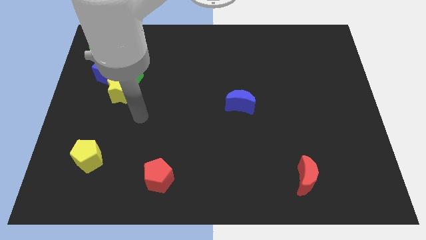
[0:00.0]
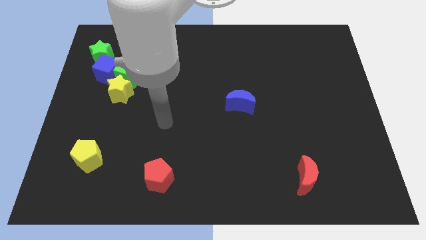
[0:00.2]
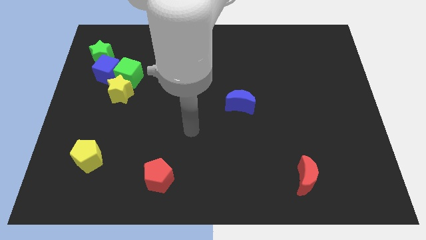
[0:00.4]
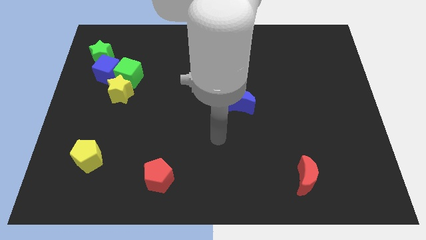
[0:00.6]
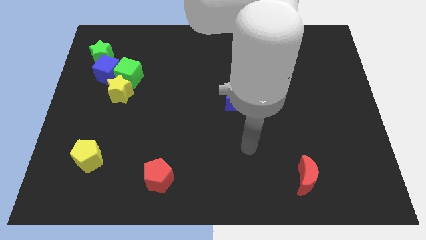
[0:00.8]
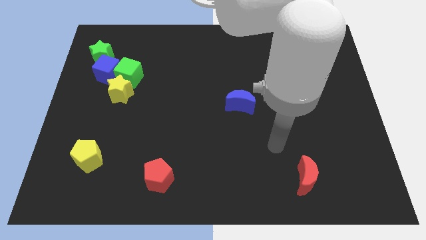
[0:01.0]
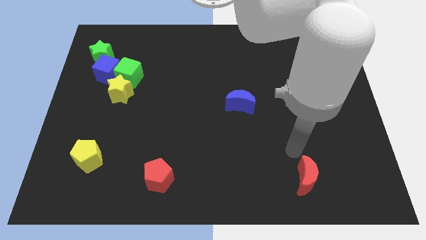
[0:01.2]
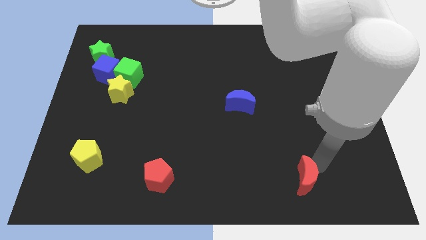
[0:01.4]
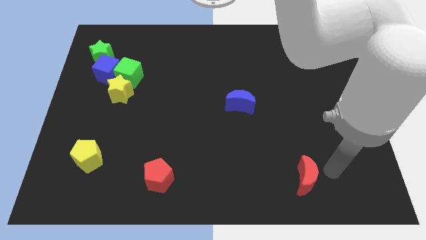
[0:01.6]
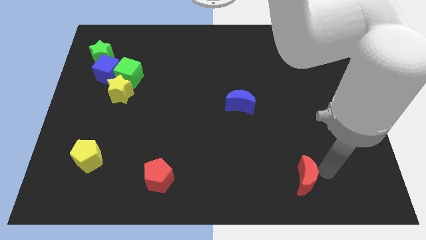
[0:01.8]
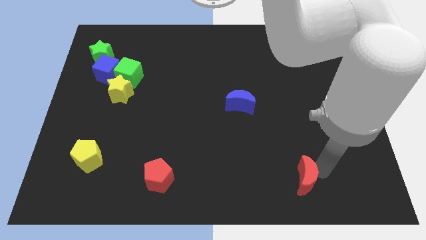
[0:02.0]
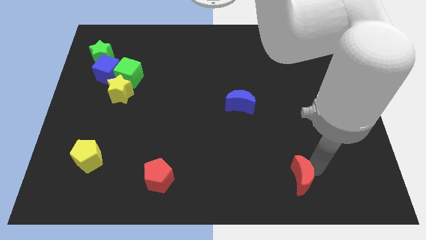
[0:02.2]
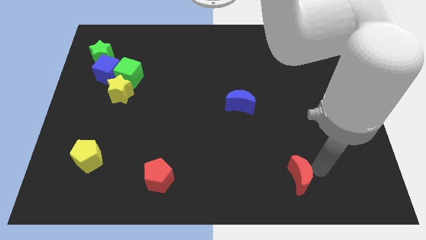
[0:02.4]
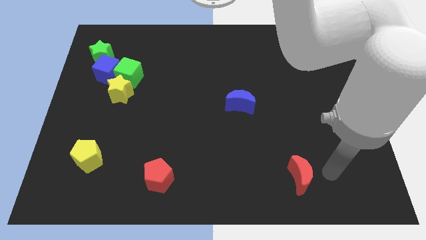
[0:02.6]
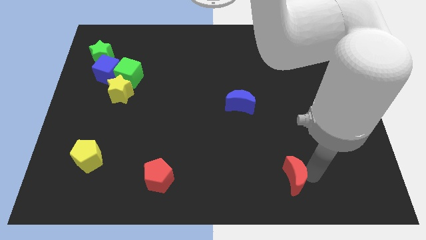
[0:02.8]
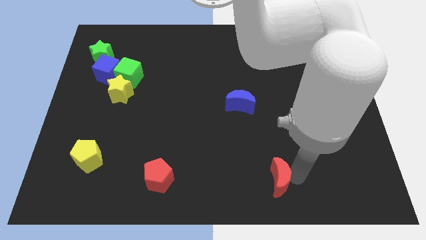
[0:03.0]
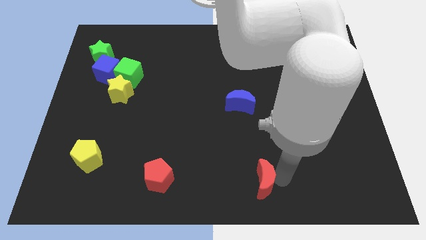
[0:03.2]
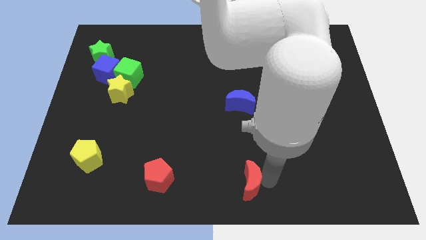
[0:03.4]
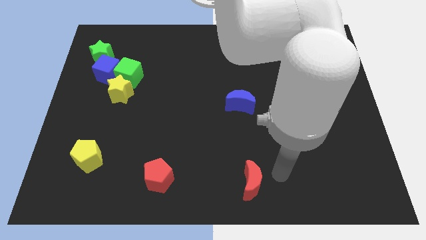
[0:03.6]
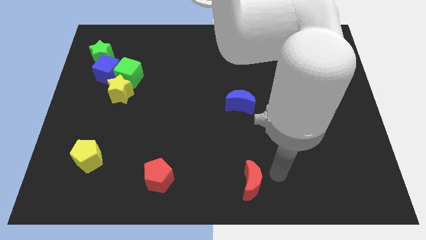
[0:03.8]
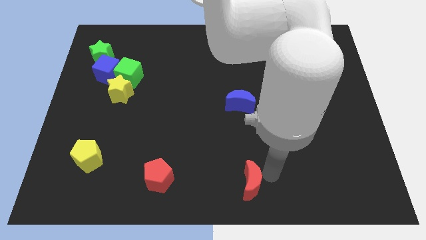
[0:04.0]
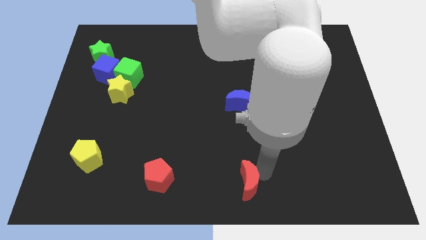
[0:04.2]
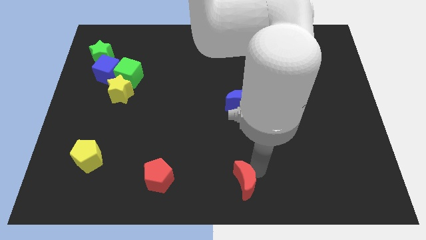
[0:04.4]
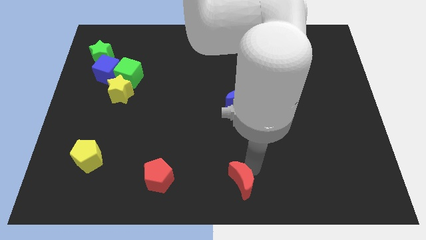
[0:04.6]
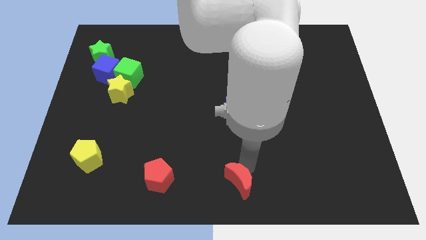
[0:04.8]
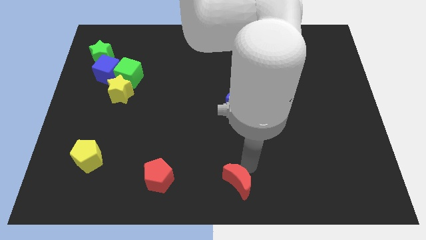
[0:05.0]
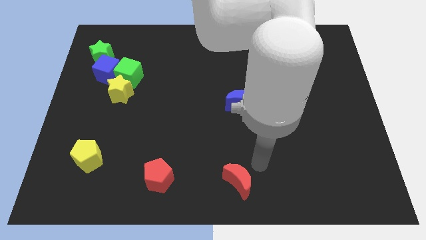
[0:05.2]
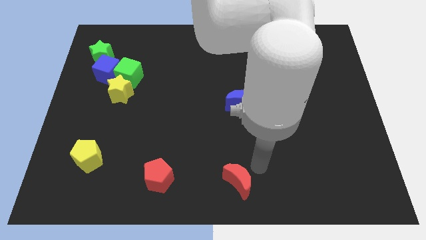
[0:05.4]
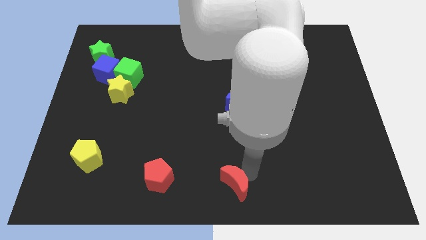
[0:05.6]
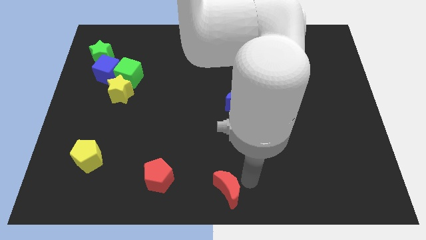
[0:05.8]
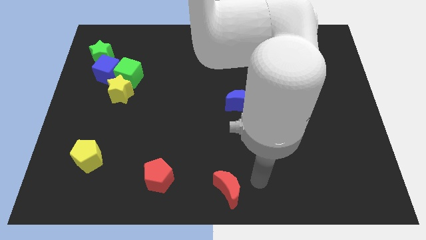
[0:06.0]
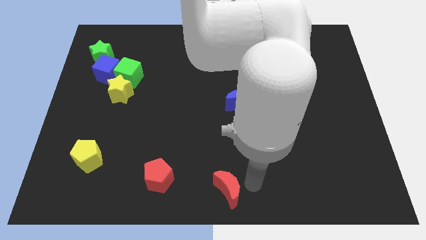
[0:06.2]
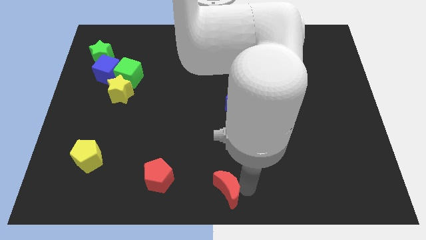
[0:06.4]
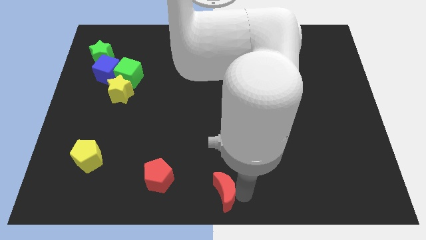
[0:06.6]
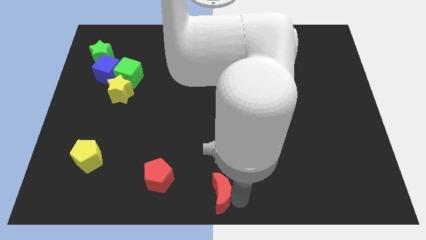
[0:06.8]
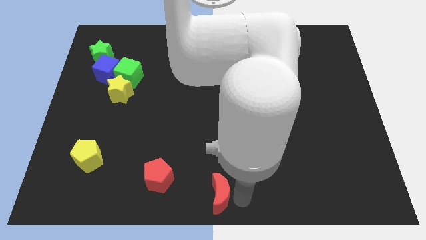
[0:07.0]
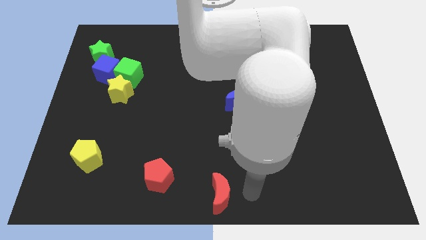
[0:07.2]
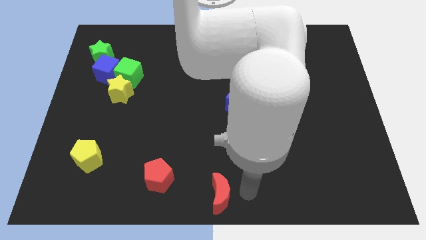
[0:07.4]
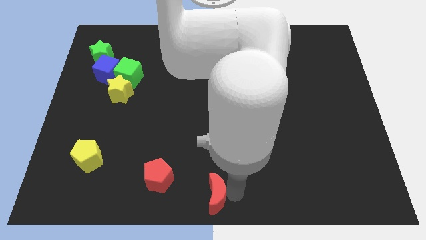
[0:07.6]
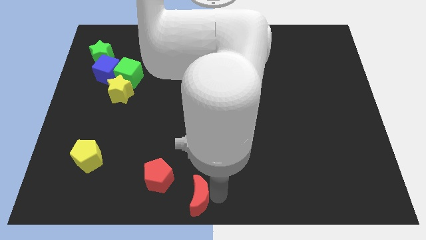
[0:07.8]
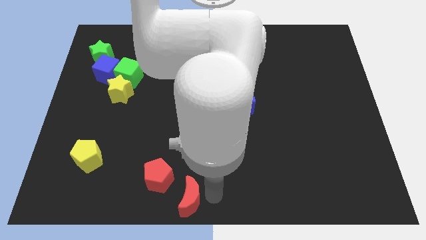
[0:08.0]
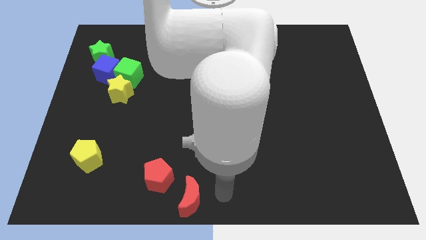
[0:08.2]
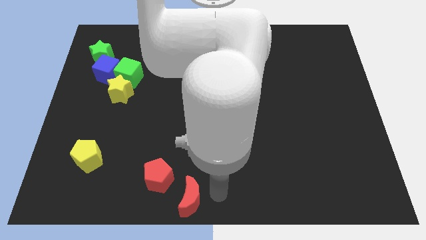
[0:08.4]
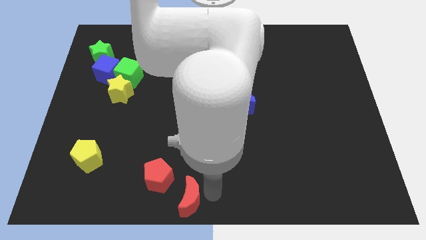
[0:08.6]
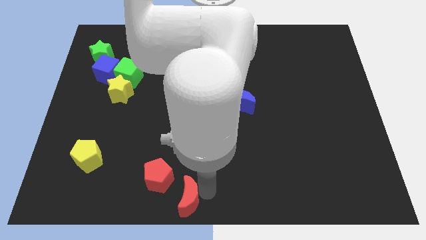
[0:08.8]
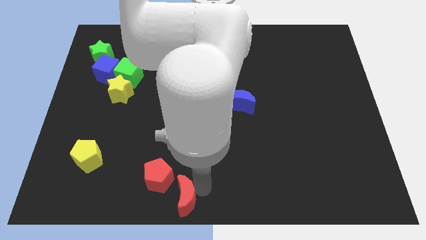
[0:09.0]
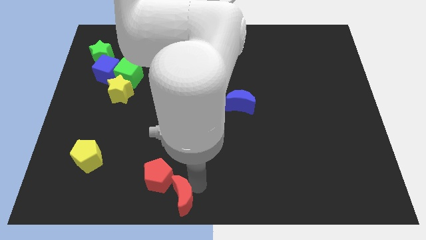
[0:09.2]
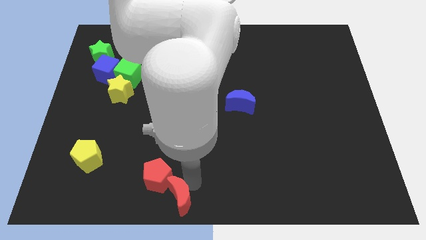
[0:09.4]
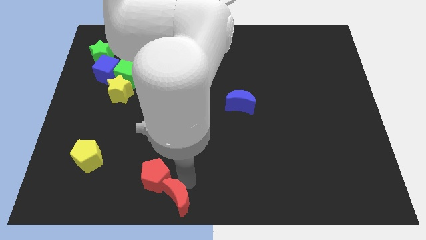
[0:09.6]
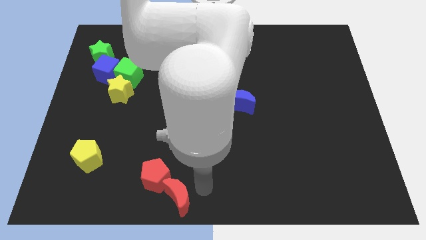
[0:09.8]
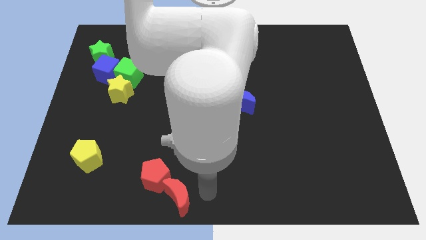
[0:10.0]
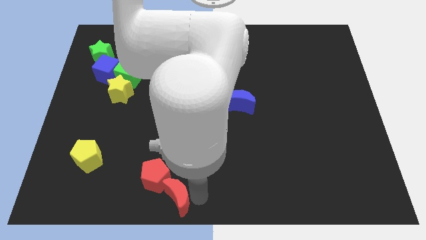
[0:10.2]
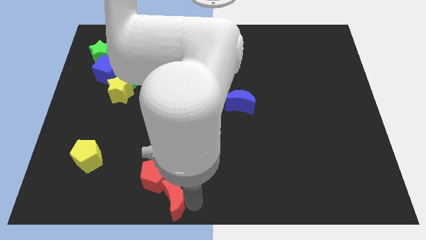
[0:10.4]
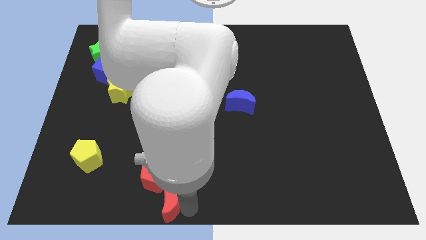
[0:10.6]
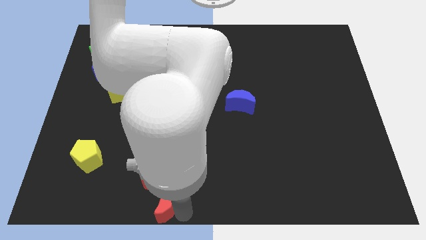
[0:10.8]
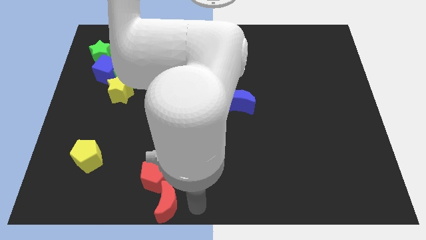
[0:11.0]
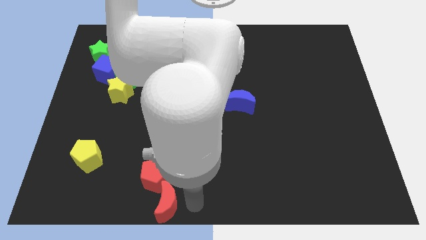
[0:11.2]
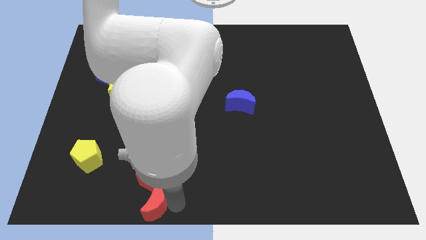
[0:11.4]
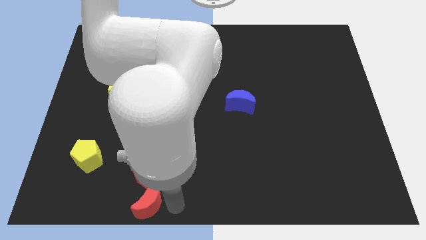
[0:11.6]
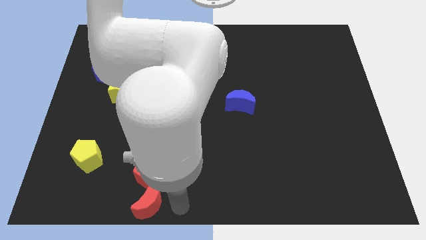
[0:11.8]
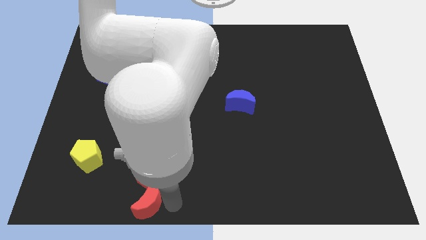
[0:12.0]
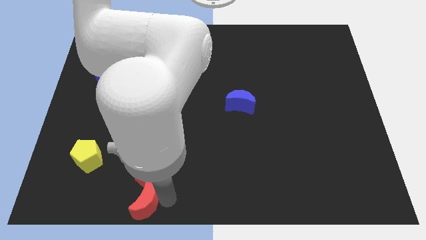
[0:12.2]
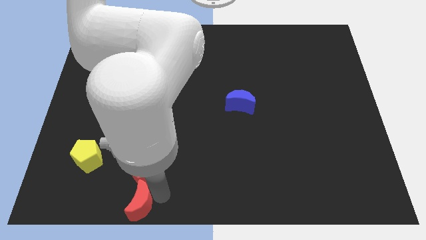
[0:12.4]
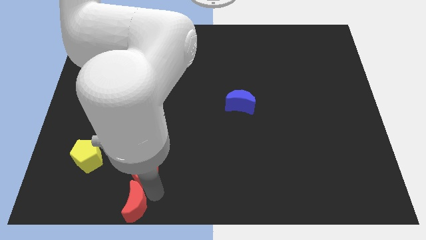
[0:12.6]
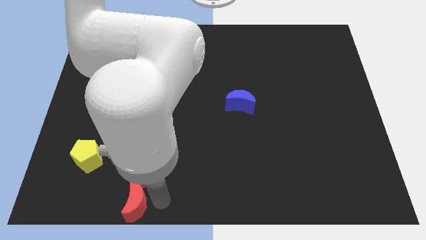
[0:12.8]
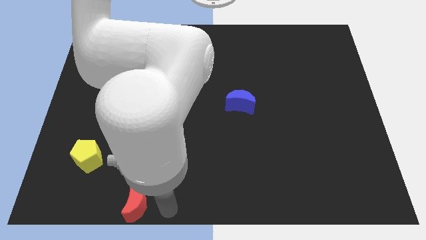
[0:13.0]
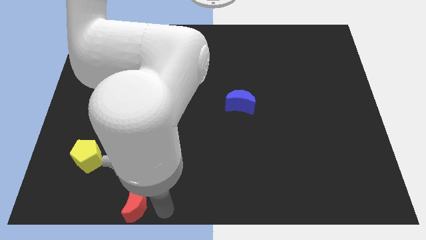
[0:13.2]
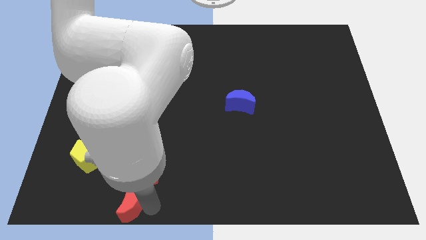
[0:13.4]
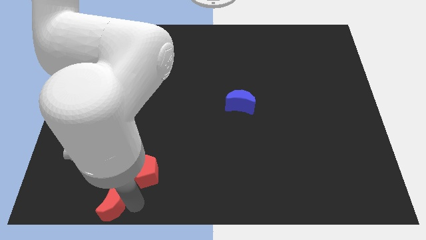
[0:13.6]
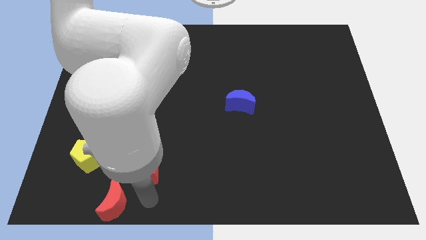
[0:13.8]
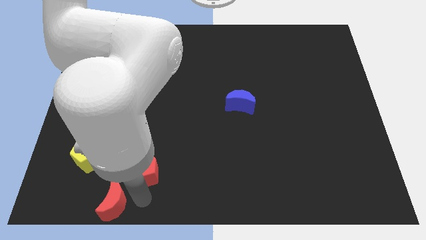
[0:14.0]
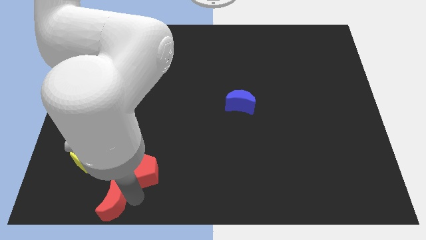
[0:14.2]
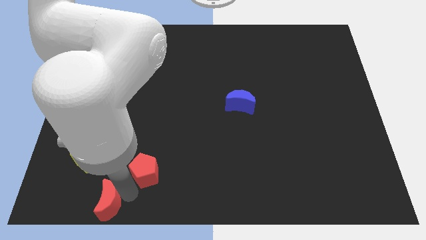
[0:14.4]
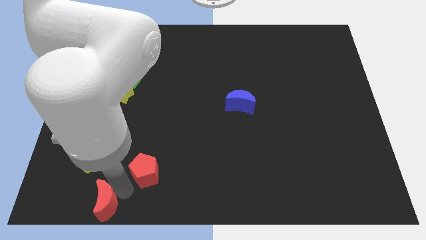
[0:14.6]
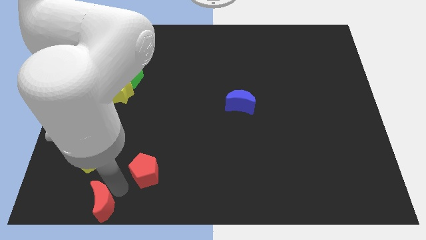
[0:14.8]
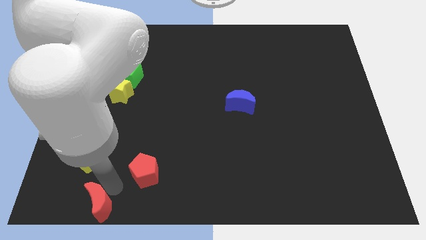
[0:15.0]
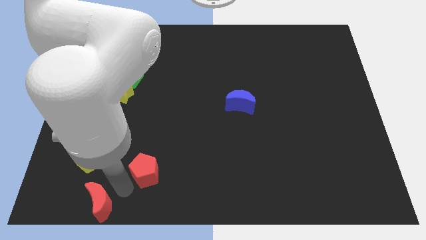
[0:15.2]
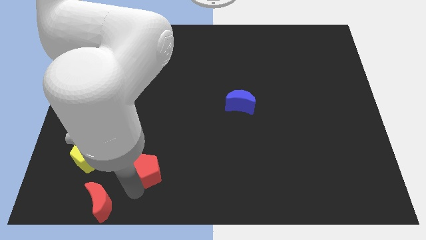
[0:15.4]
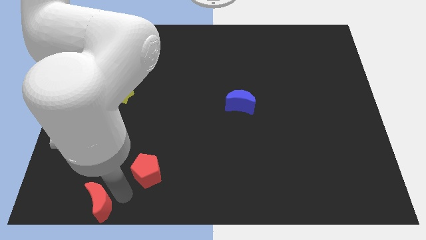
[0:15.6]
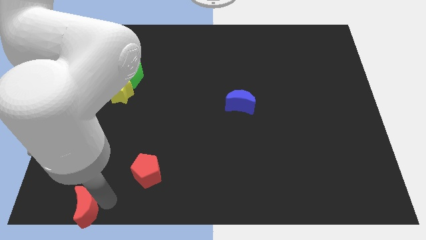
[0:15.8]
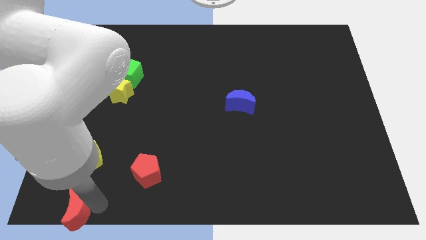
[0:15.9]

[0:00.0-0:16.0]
move the red moon to the bottom left of the board
